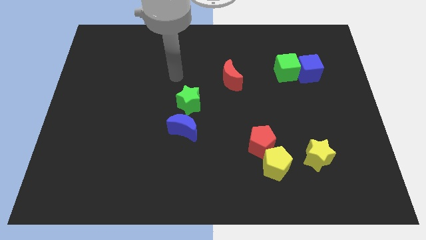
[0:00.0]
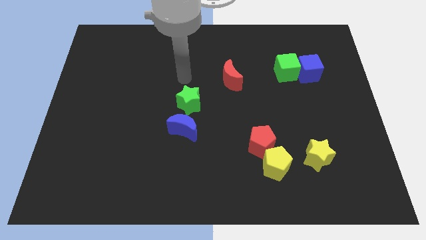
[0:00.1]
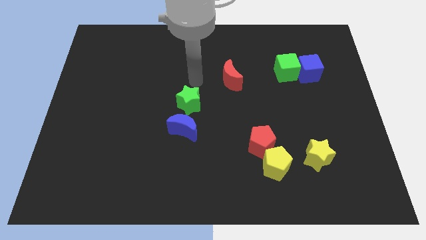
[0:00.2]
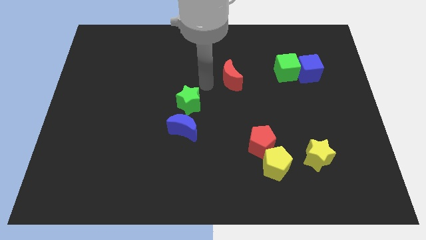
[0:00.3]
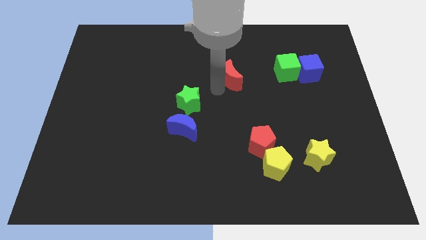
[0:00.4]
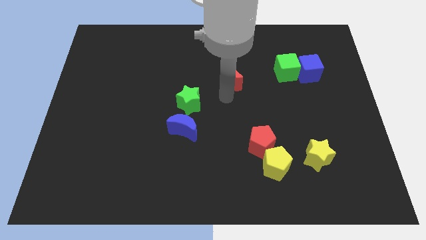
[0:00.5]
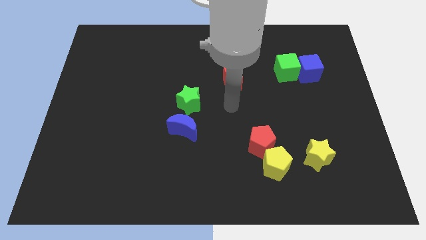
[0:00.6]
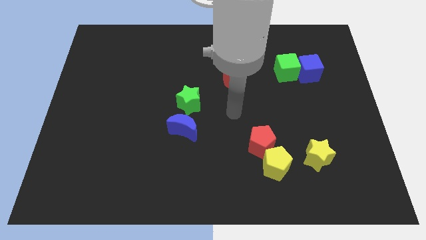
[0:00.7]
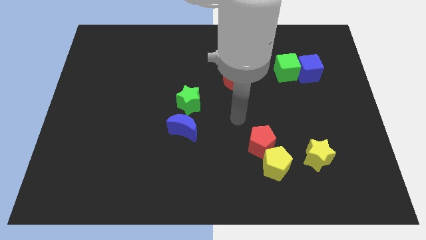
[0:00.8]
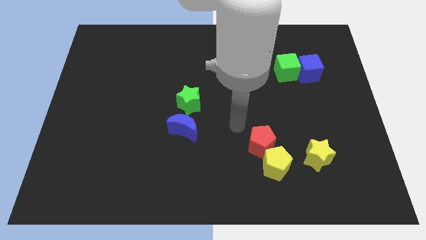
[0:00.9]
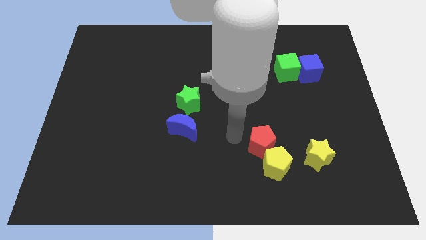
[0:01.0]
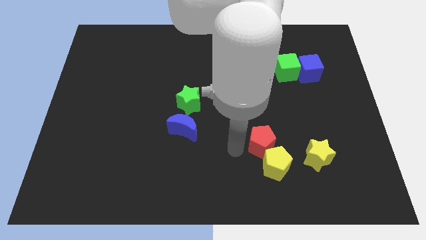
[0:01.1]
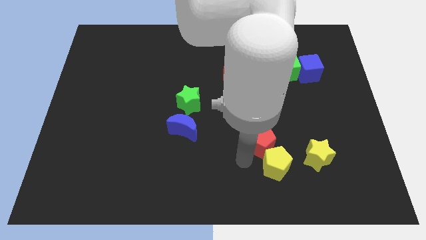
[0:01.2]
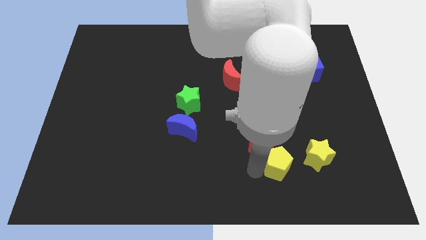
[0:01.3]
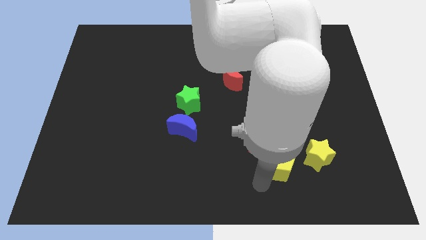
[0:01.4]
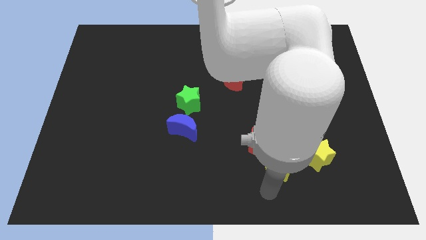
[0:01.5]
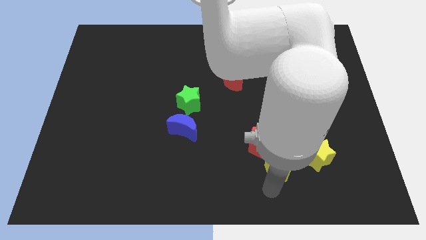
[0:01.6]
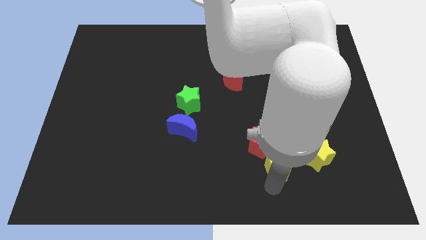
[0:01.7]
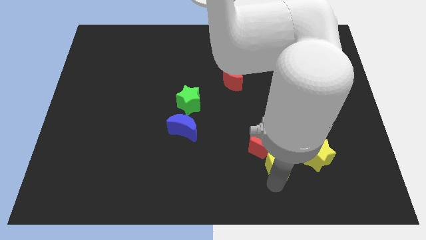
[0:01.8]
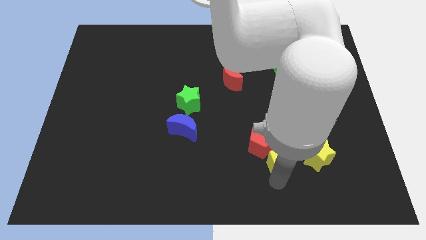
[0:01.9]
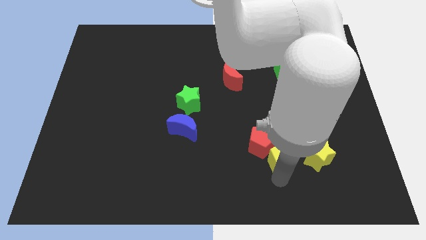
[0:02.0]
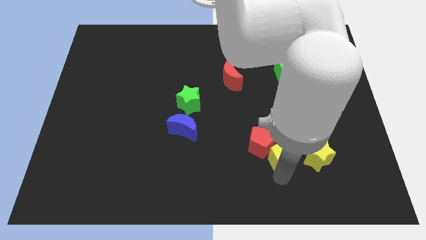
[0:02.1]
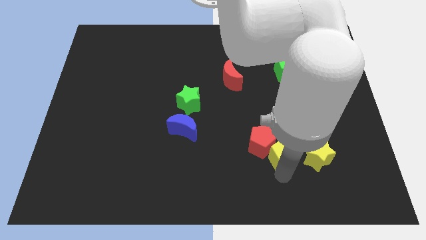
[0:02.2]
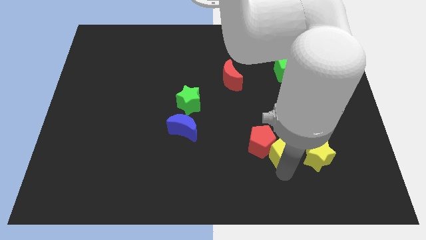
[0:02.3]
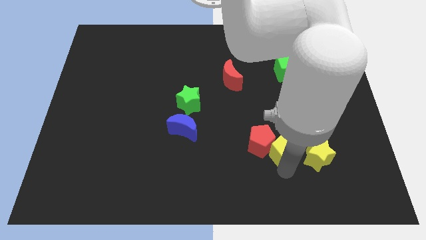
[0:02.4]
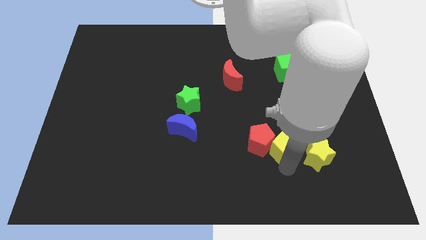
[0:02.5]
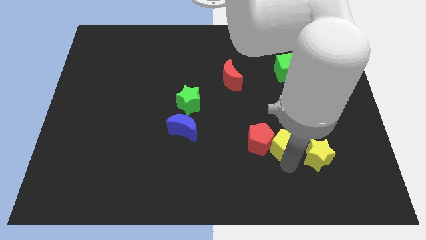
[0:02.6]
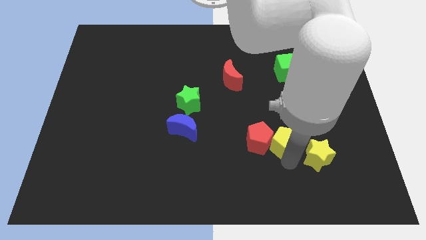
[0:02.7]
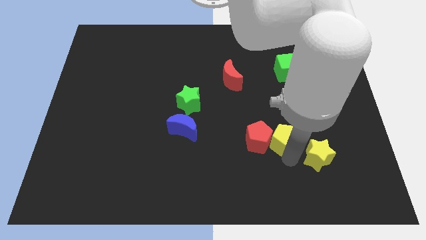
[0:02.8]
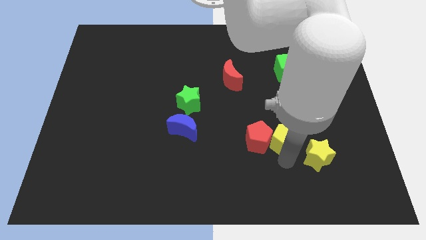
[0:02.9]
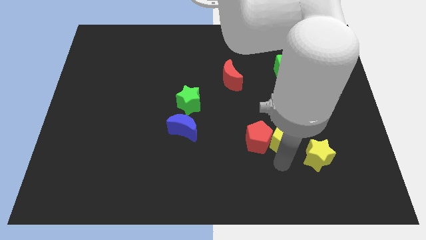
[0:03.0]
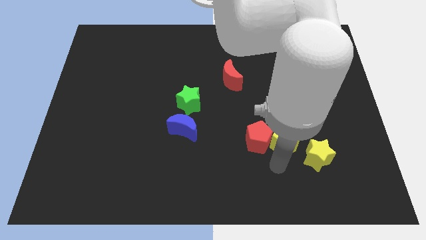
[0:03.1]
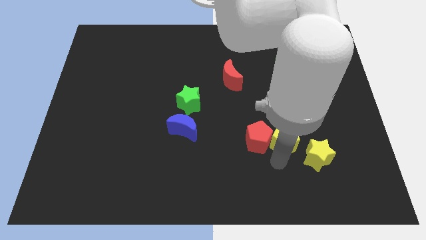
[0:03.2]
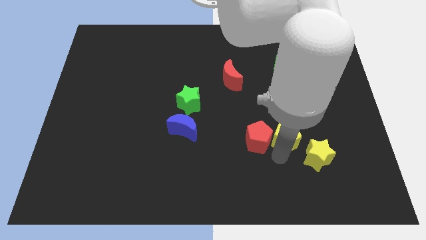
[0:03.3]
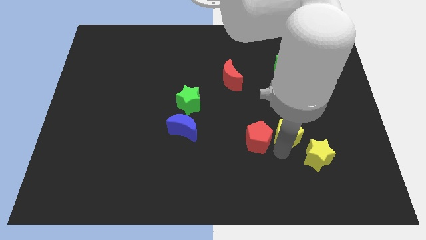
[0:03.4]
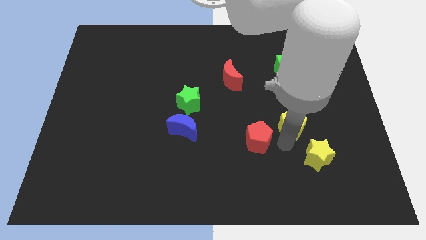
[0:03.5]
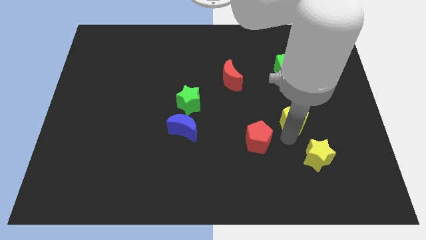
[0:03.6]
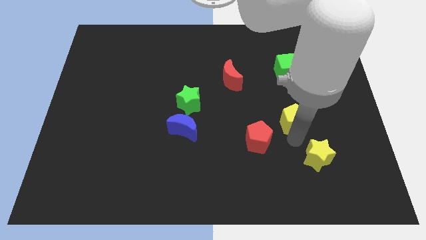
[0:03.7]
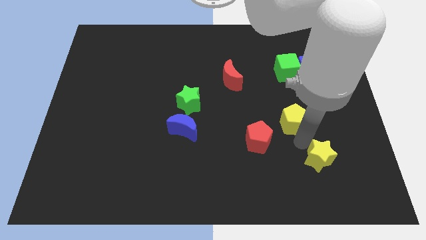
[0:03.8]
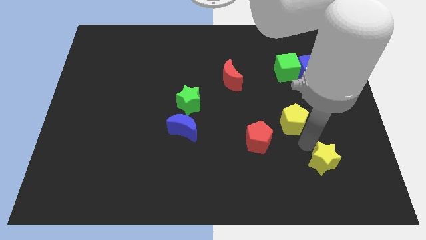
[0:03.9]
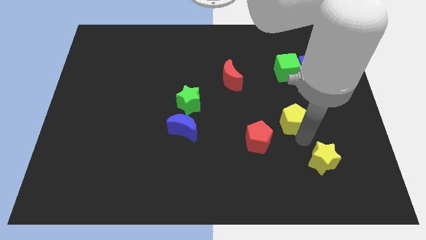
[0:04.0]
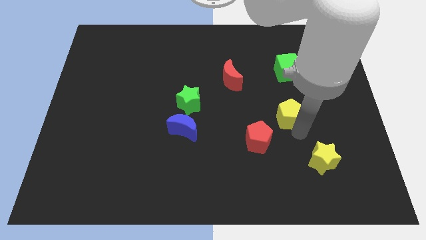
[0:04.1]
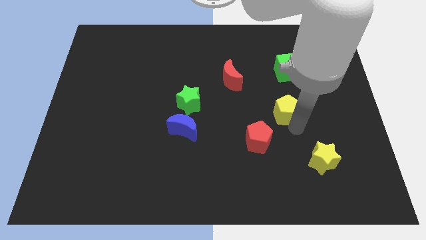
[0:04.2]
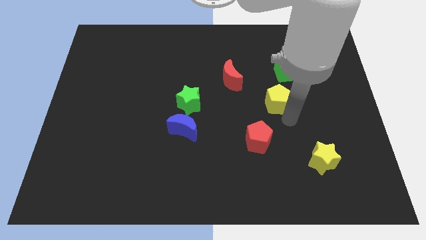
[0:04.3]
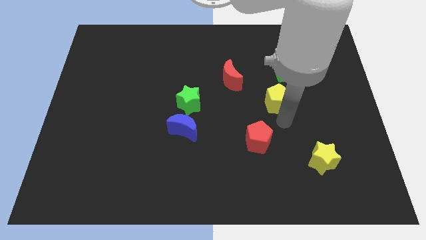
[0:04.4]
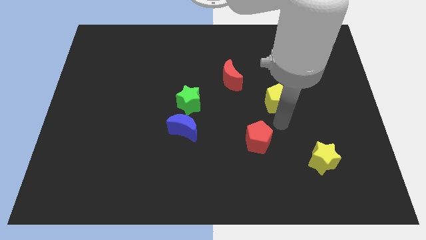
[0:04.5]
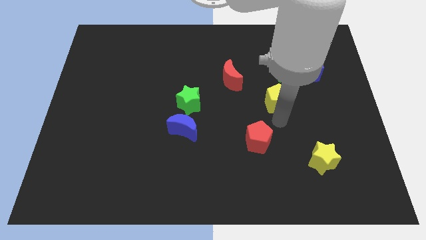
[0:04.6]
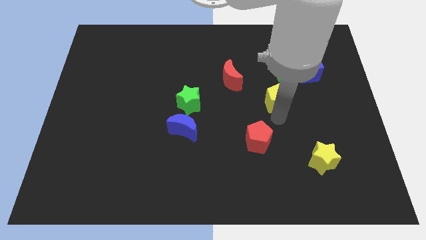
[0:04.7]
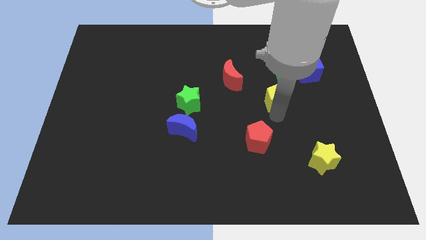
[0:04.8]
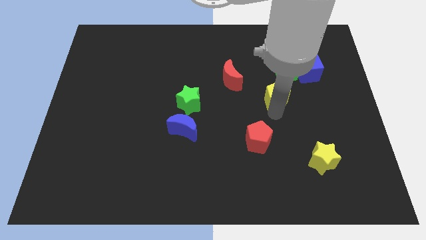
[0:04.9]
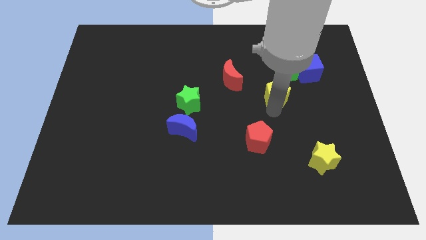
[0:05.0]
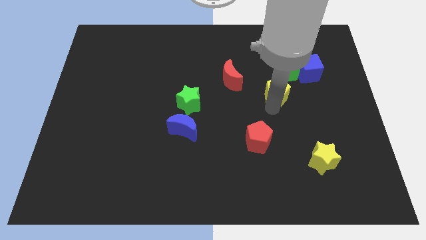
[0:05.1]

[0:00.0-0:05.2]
move the yellow pentagon to the right of the red moon

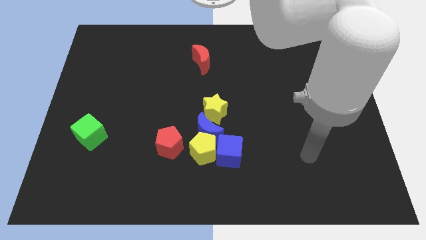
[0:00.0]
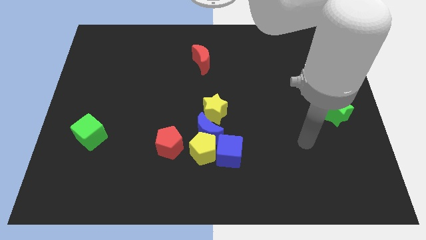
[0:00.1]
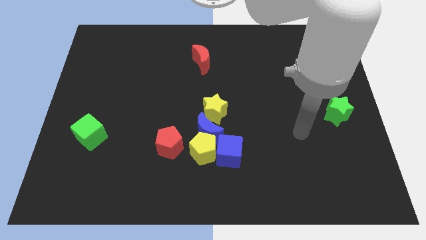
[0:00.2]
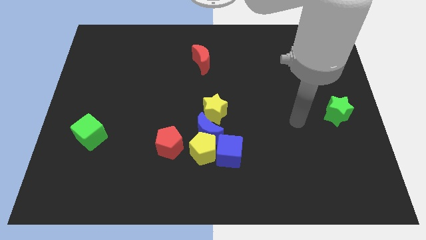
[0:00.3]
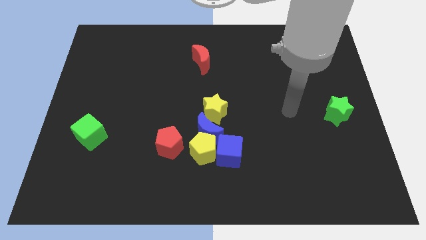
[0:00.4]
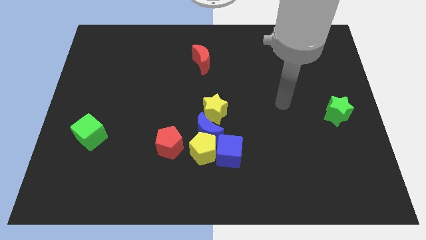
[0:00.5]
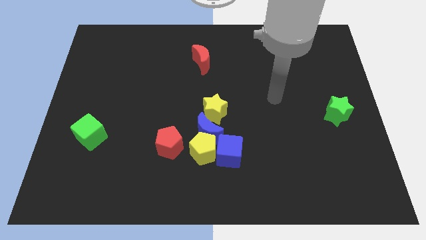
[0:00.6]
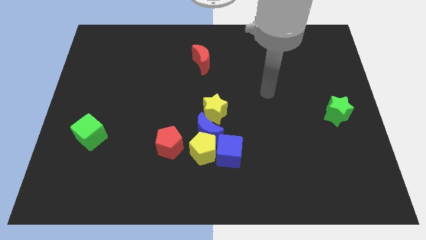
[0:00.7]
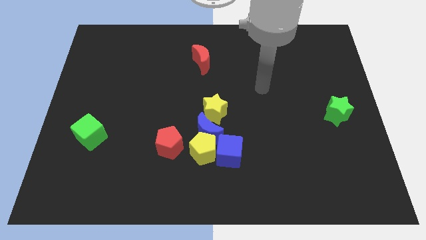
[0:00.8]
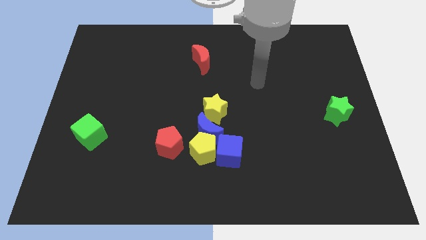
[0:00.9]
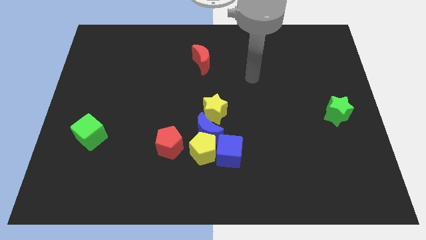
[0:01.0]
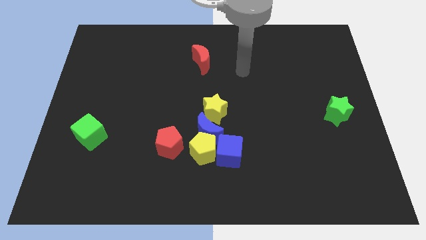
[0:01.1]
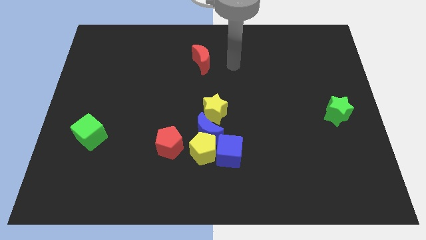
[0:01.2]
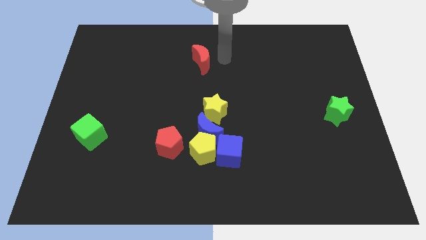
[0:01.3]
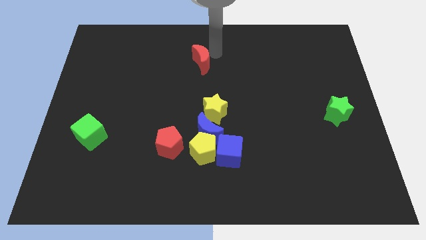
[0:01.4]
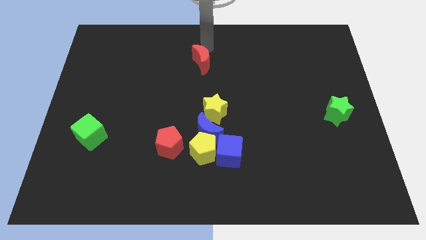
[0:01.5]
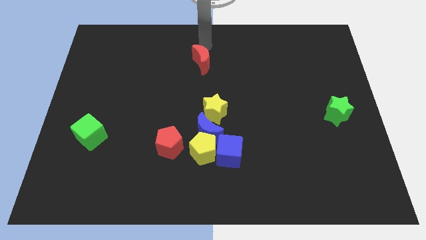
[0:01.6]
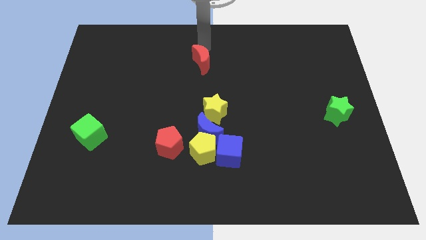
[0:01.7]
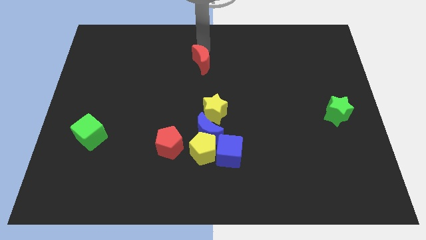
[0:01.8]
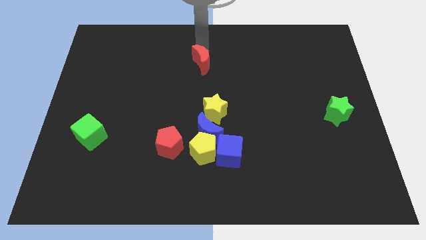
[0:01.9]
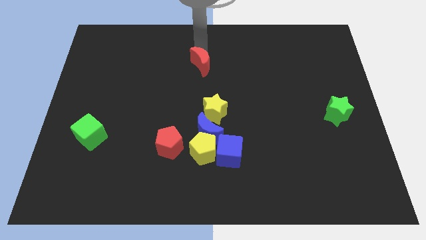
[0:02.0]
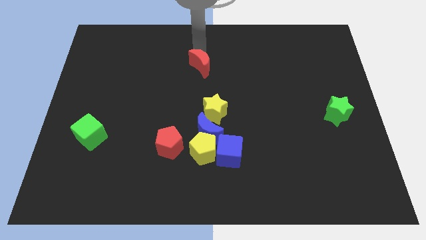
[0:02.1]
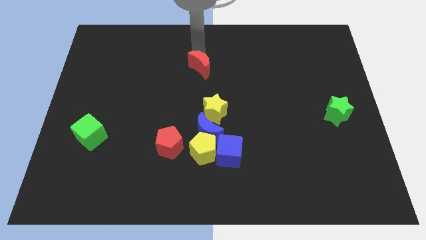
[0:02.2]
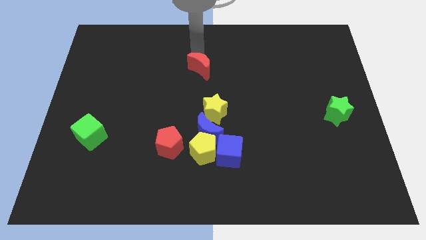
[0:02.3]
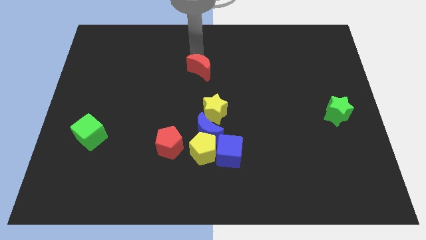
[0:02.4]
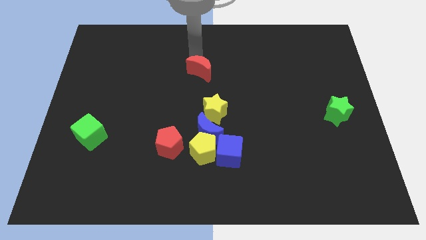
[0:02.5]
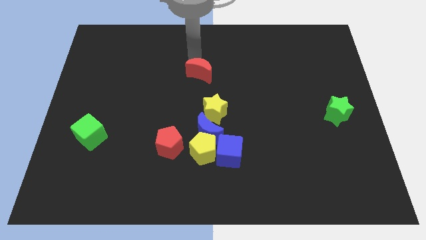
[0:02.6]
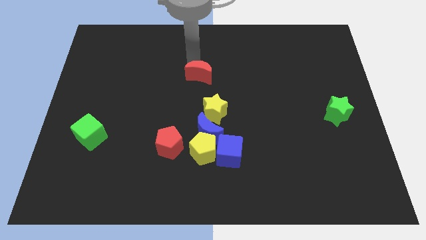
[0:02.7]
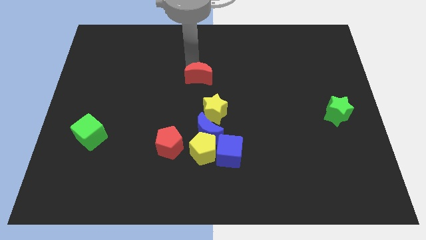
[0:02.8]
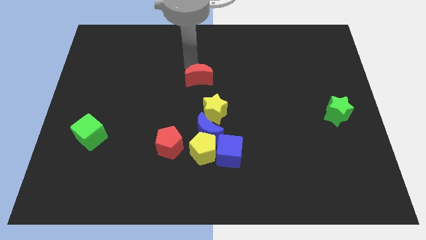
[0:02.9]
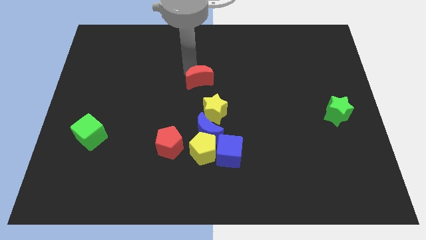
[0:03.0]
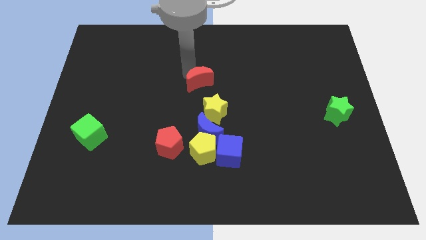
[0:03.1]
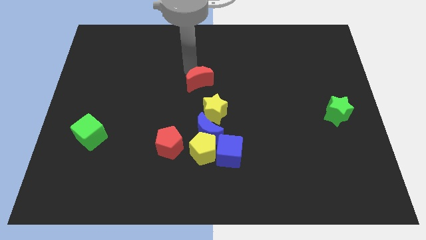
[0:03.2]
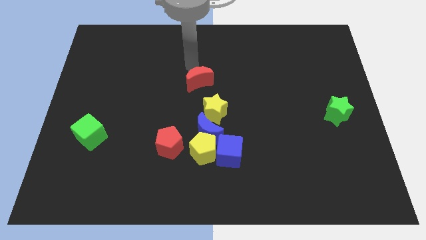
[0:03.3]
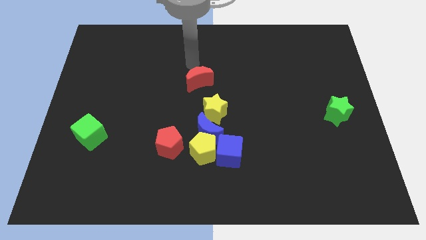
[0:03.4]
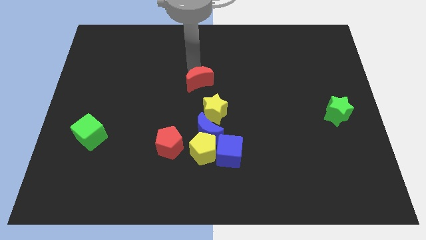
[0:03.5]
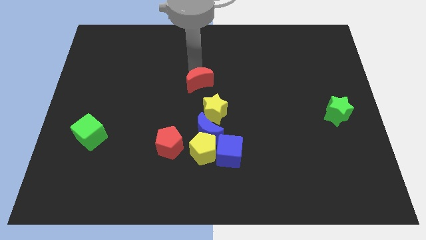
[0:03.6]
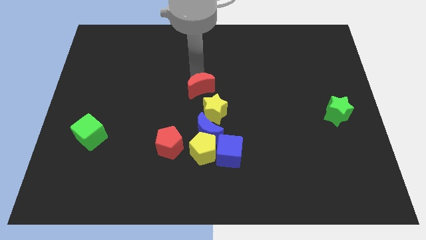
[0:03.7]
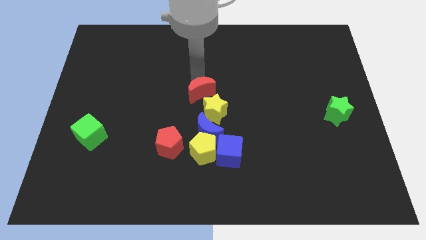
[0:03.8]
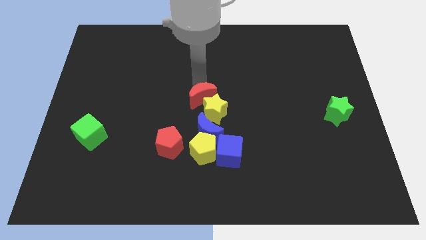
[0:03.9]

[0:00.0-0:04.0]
put the red moon to the top of the yellow pentagon
